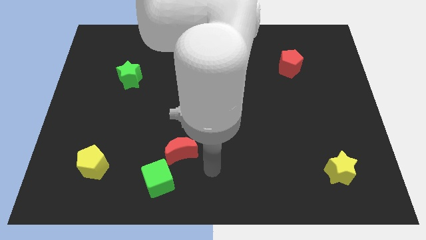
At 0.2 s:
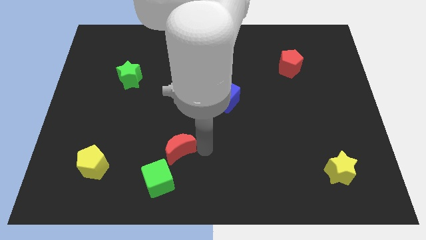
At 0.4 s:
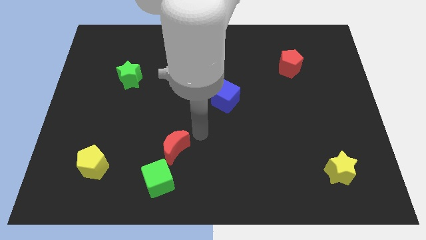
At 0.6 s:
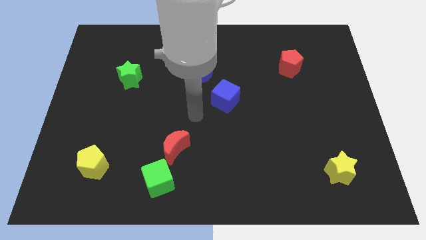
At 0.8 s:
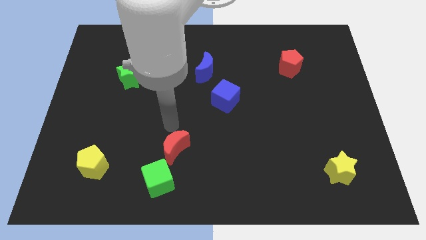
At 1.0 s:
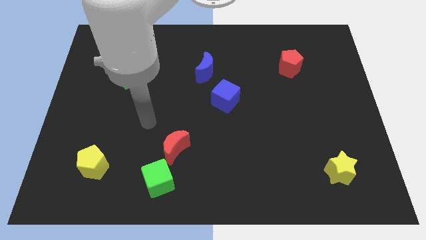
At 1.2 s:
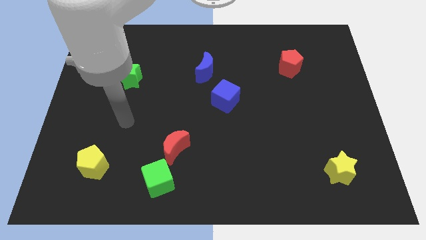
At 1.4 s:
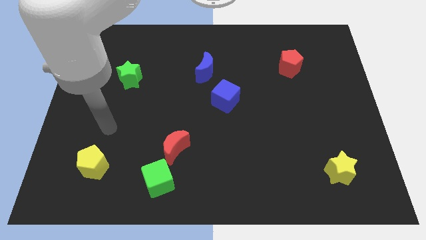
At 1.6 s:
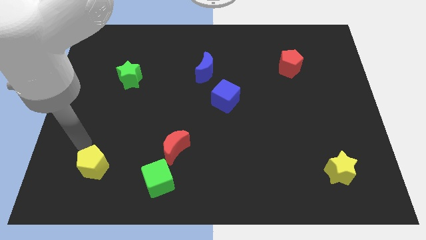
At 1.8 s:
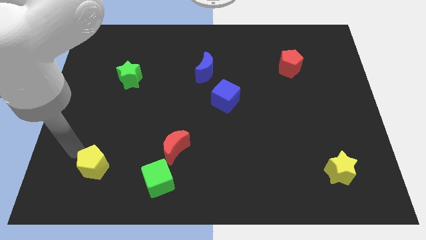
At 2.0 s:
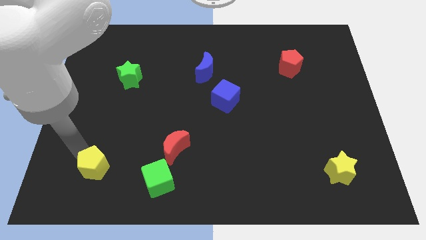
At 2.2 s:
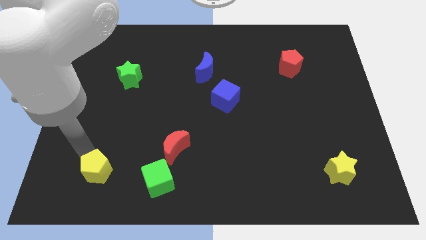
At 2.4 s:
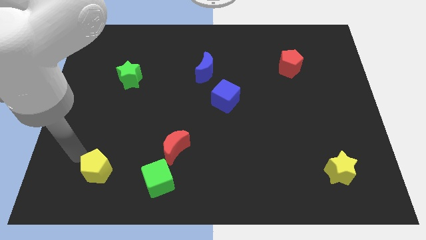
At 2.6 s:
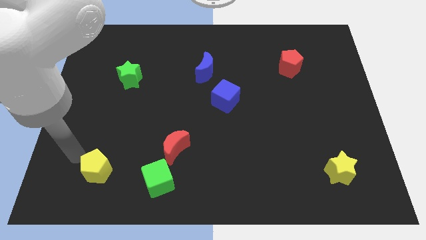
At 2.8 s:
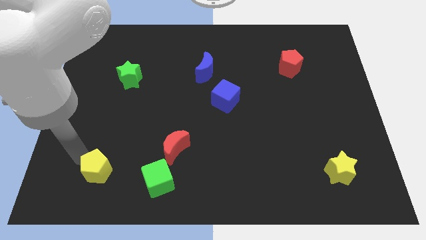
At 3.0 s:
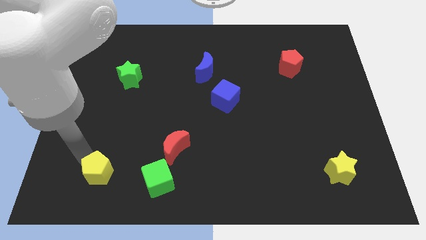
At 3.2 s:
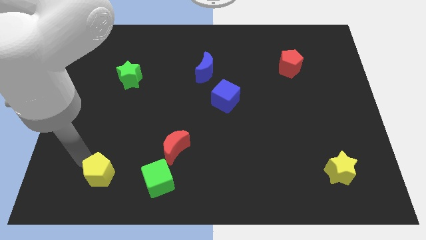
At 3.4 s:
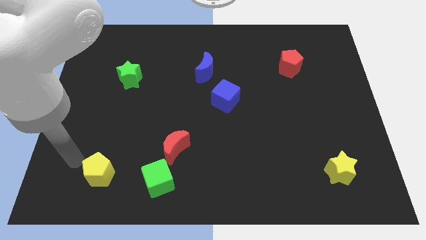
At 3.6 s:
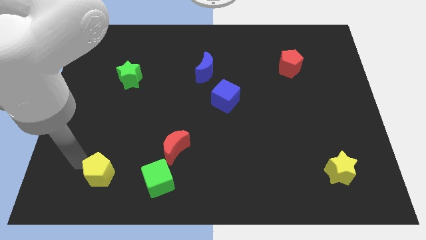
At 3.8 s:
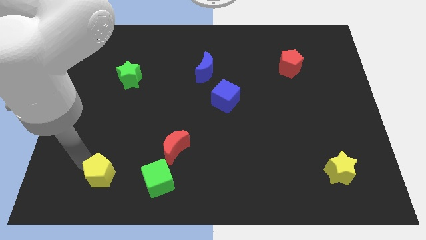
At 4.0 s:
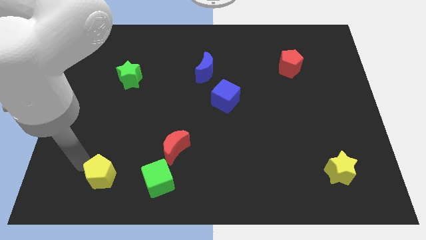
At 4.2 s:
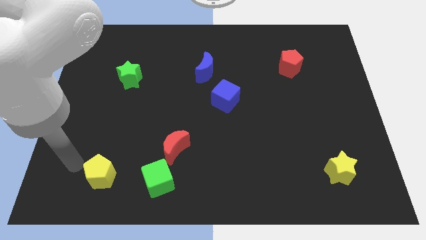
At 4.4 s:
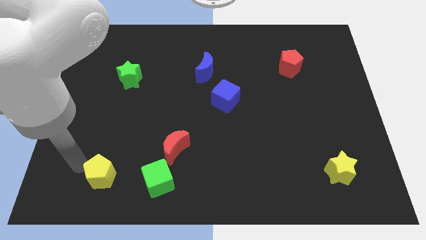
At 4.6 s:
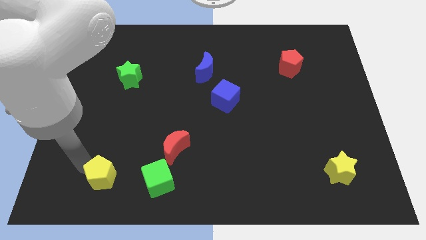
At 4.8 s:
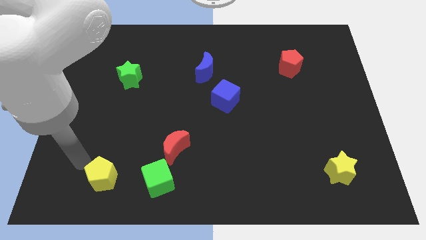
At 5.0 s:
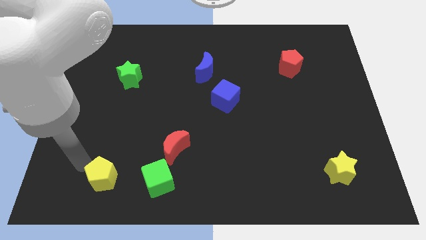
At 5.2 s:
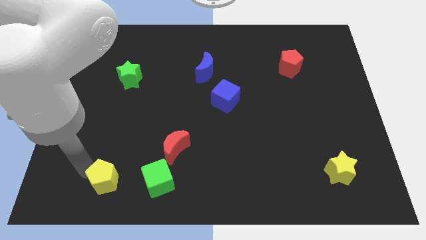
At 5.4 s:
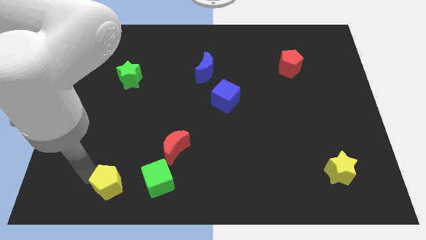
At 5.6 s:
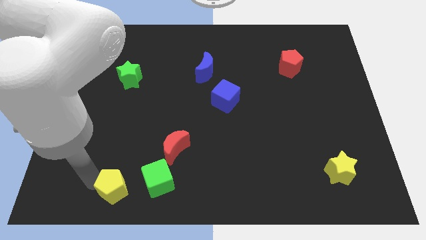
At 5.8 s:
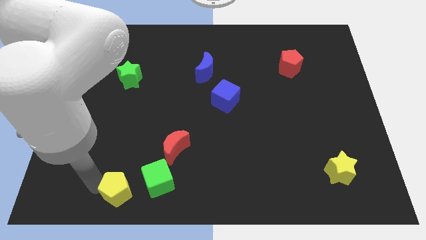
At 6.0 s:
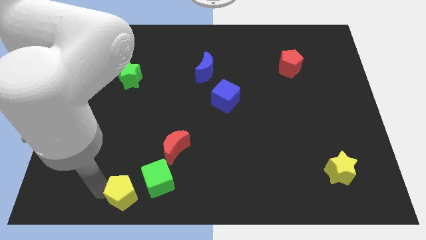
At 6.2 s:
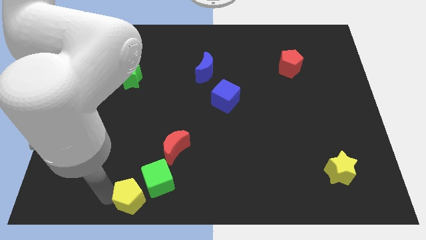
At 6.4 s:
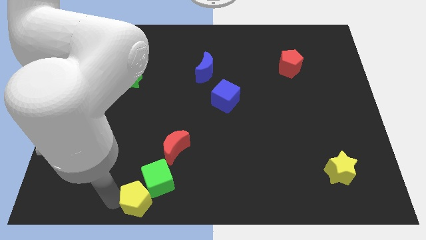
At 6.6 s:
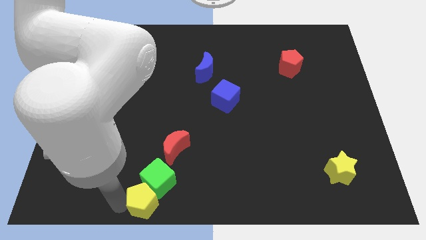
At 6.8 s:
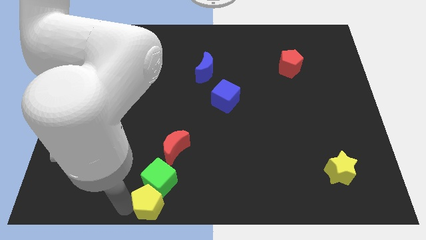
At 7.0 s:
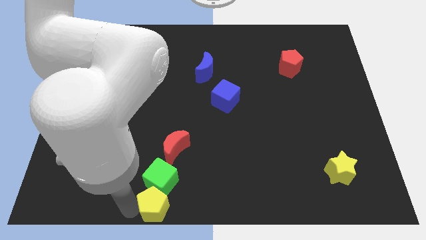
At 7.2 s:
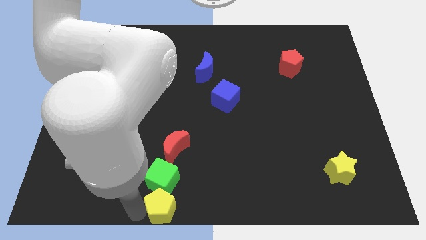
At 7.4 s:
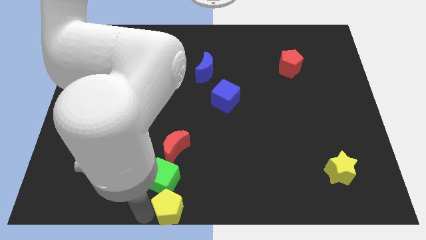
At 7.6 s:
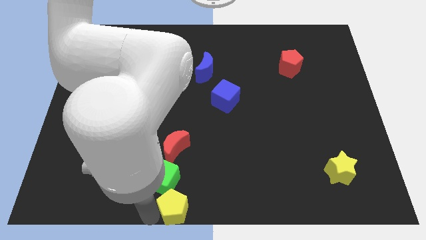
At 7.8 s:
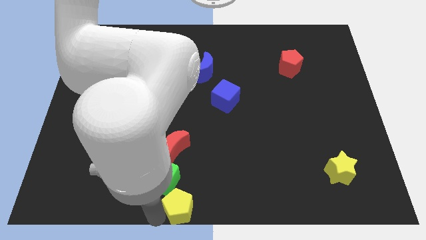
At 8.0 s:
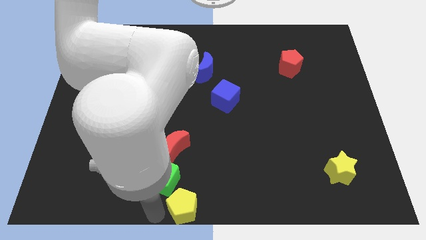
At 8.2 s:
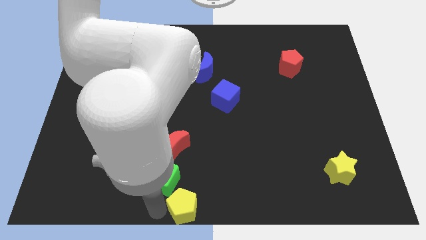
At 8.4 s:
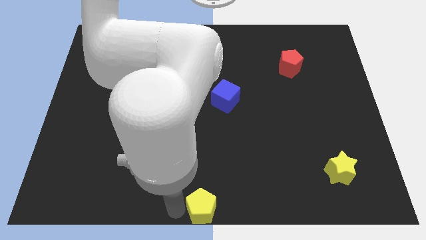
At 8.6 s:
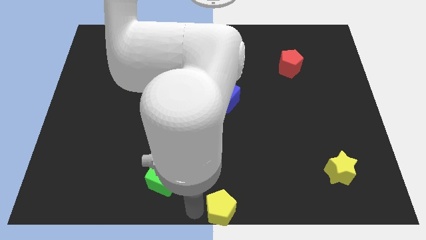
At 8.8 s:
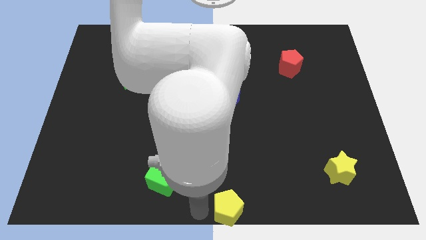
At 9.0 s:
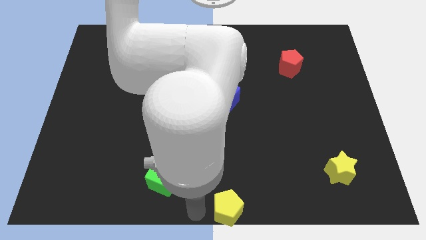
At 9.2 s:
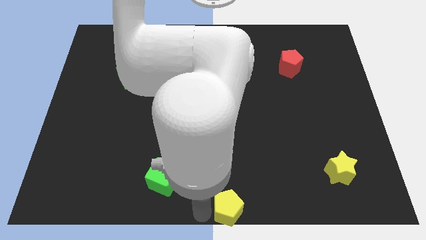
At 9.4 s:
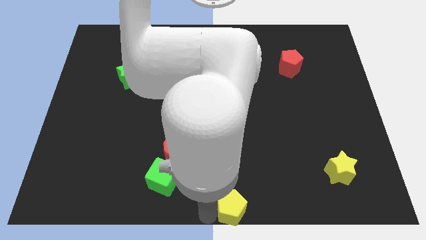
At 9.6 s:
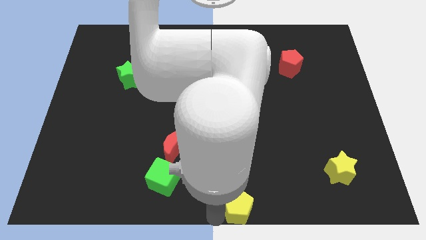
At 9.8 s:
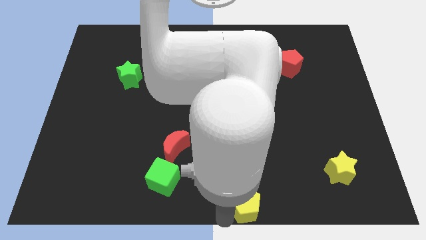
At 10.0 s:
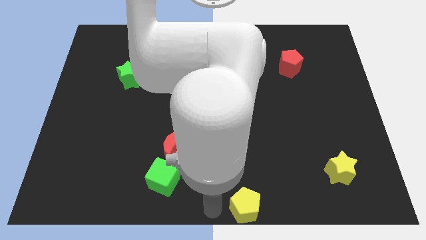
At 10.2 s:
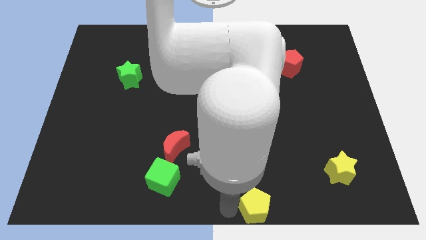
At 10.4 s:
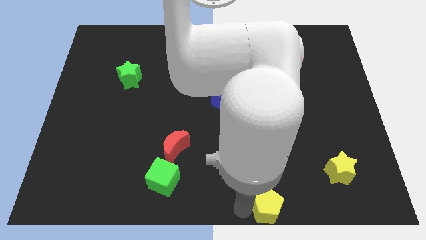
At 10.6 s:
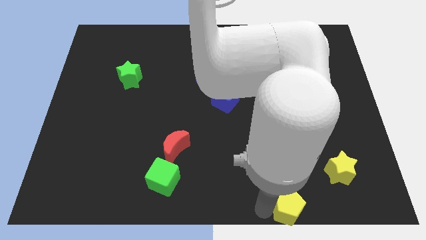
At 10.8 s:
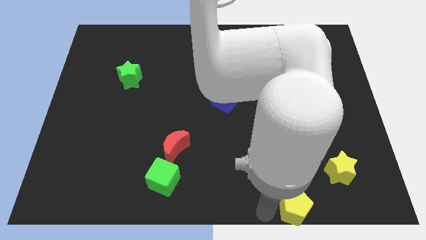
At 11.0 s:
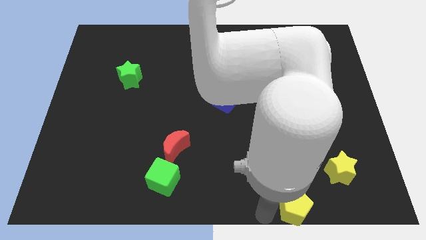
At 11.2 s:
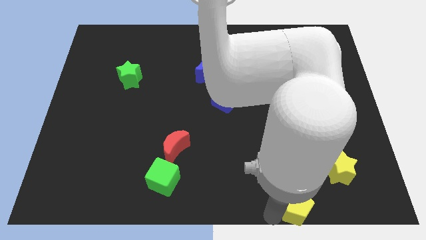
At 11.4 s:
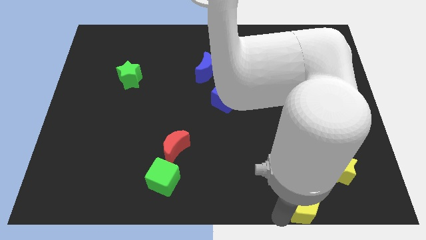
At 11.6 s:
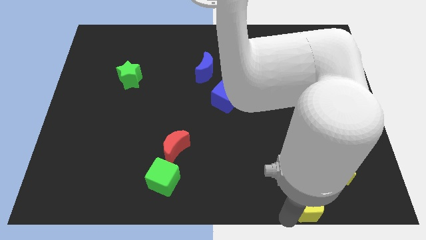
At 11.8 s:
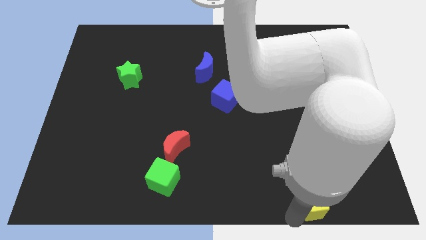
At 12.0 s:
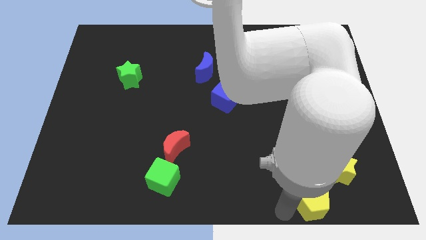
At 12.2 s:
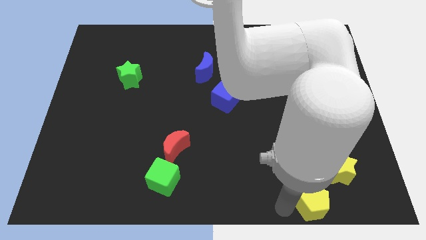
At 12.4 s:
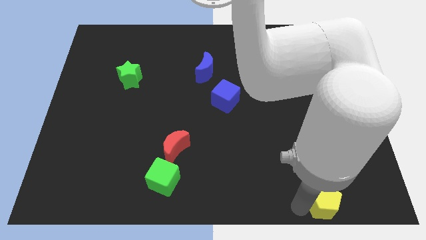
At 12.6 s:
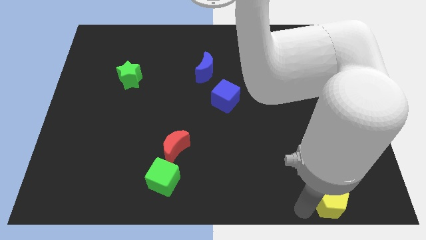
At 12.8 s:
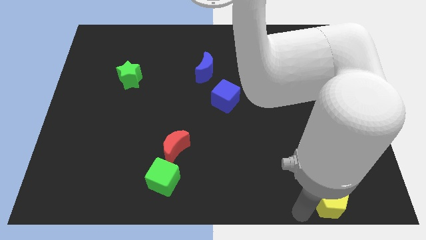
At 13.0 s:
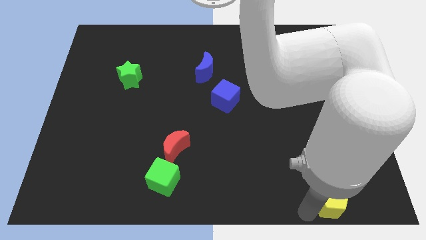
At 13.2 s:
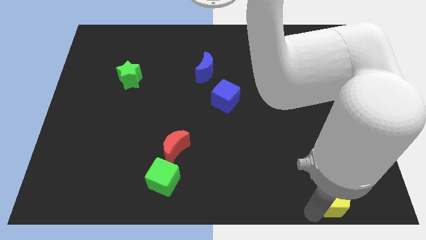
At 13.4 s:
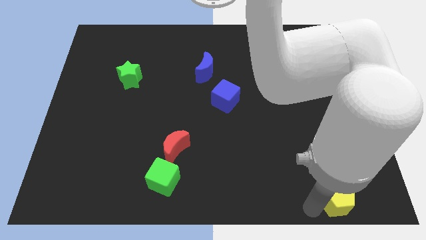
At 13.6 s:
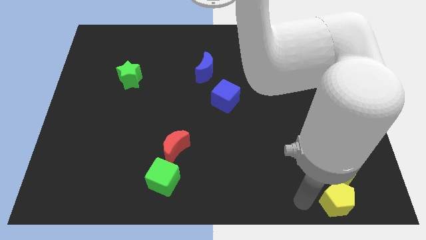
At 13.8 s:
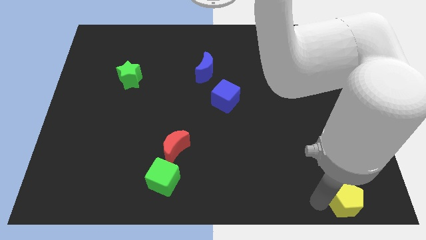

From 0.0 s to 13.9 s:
slide the yellow pentagon to the bottom right
